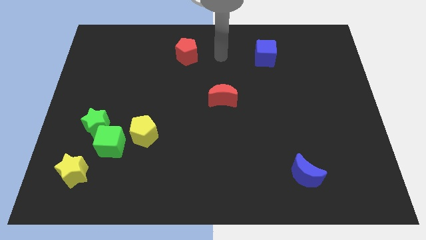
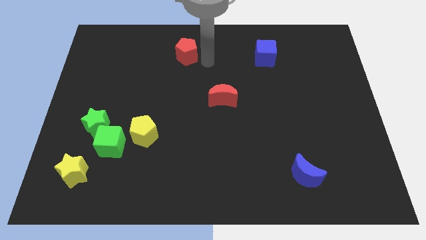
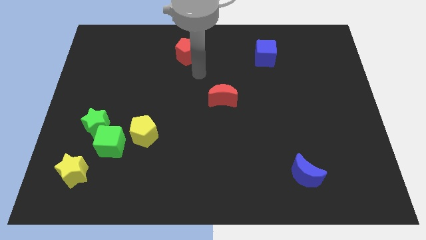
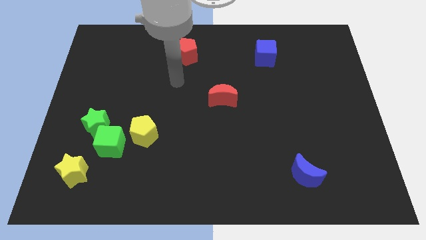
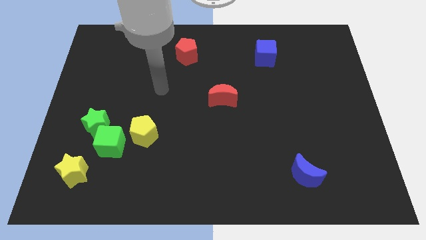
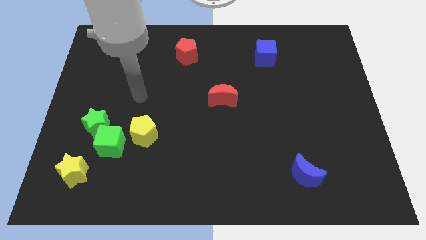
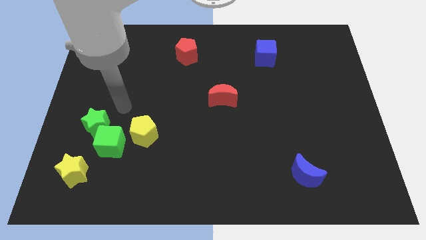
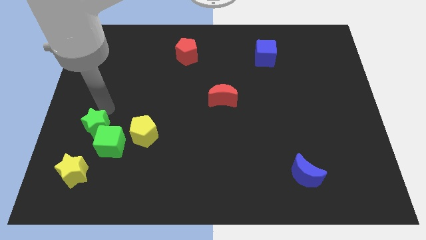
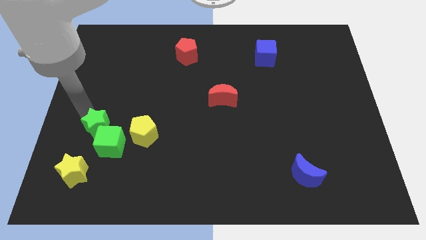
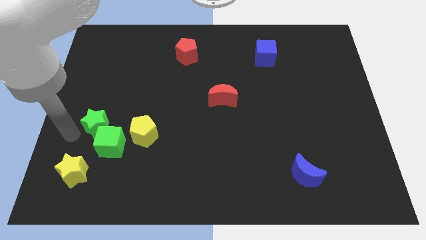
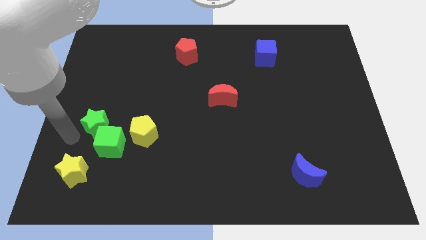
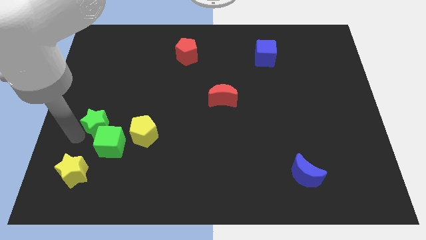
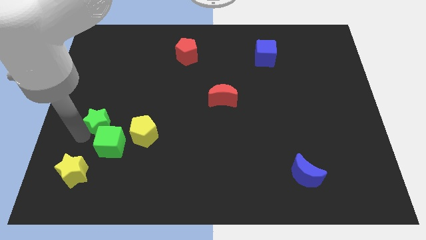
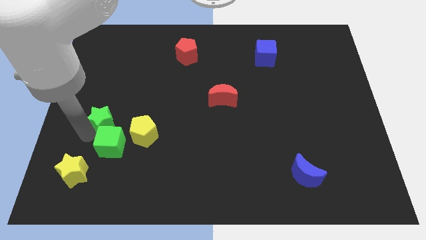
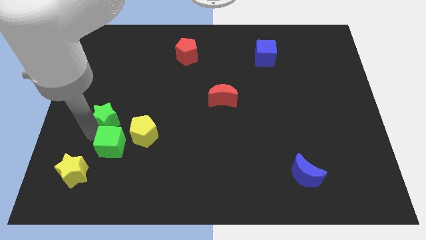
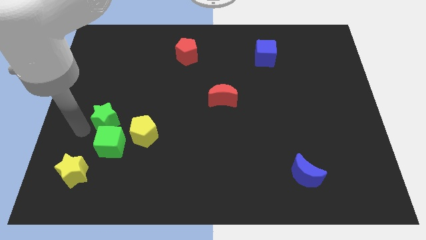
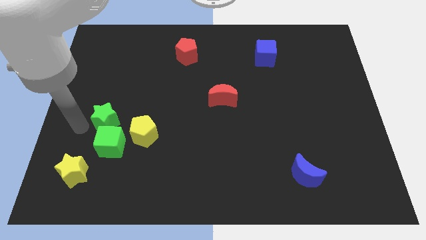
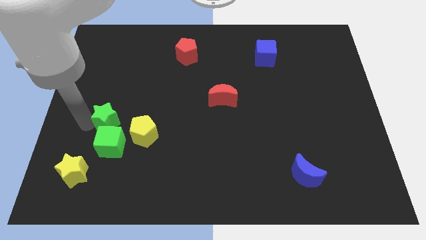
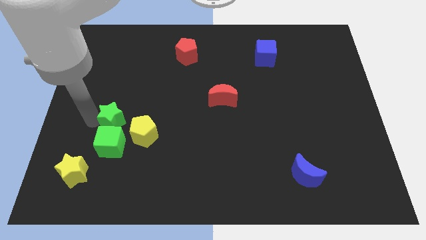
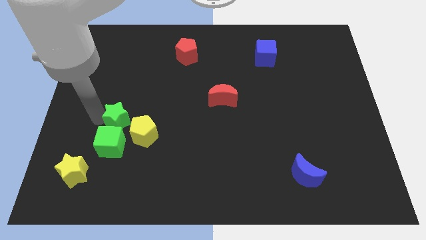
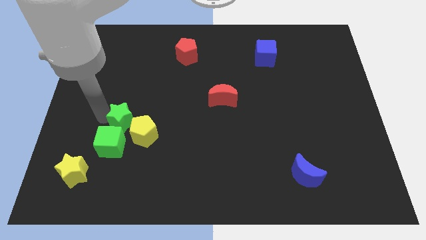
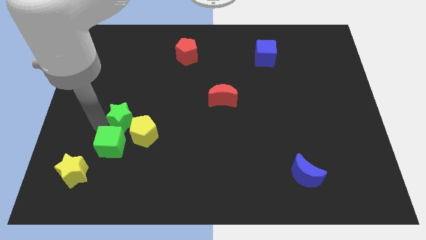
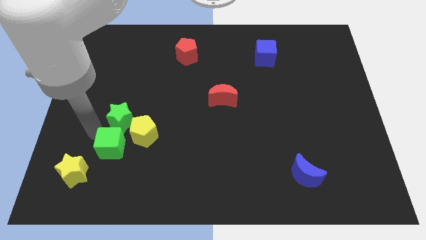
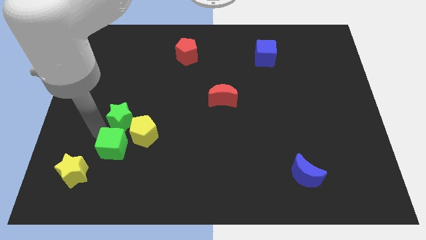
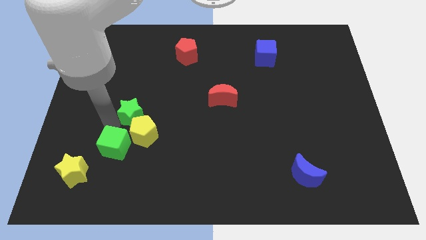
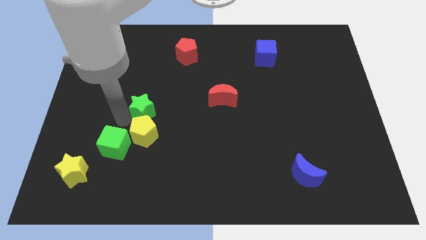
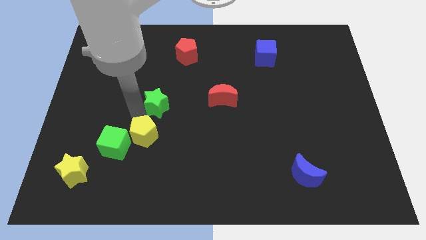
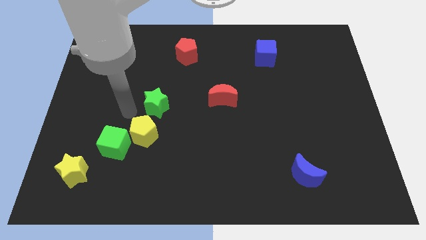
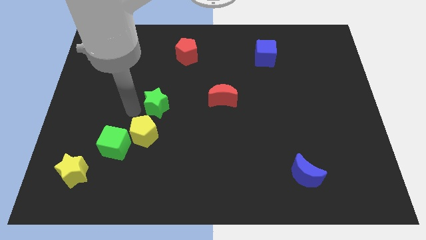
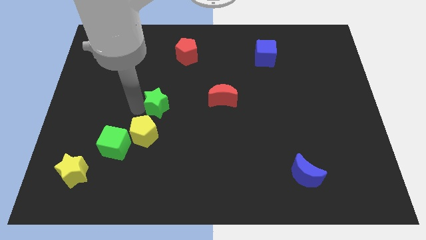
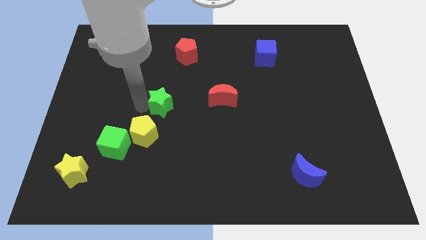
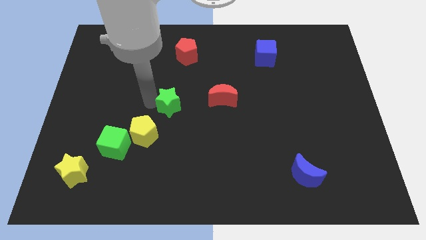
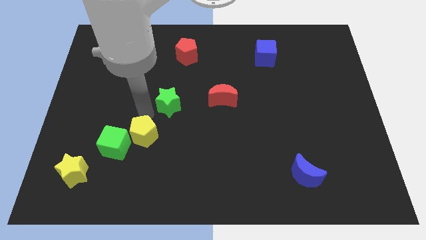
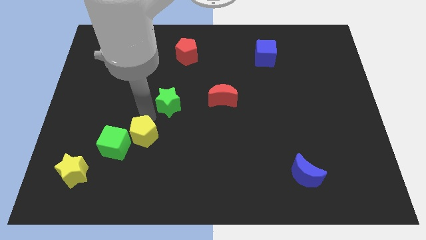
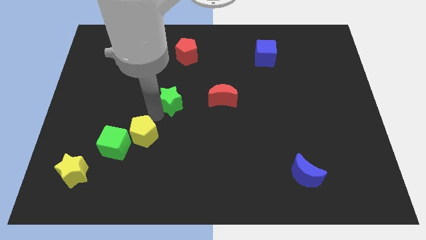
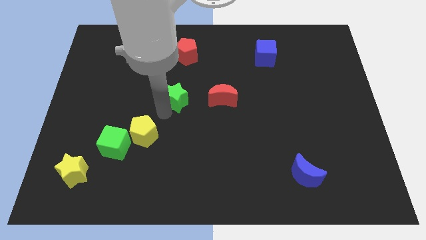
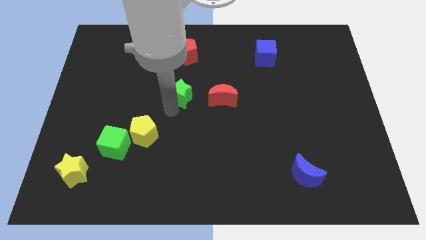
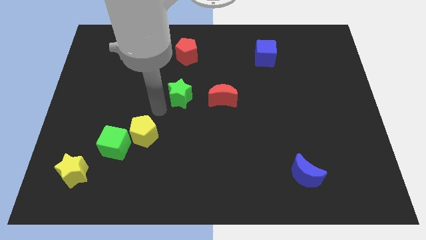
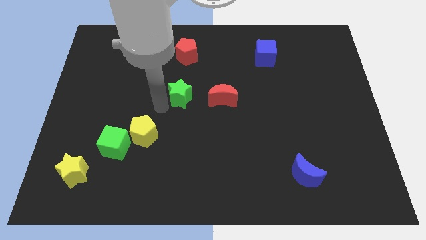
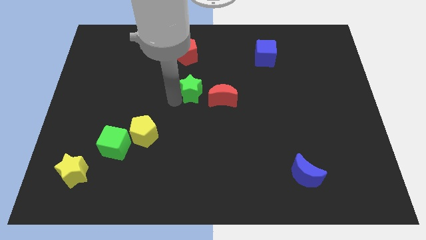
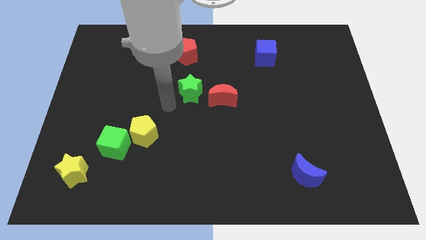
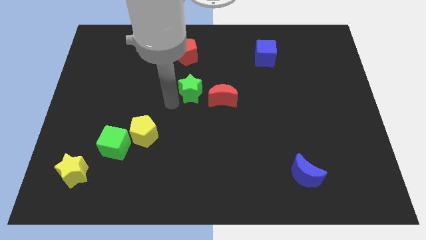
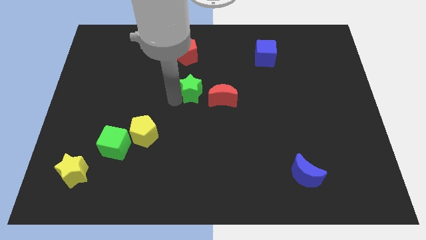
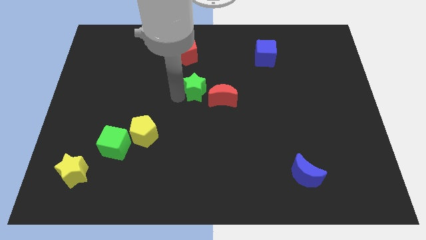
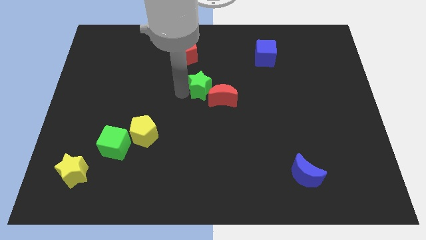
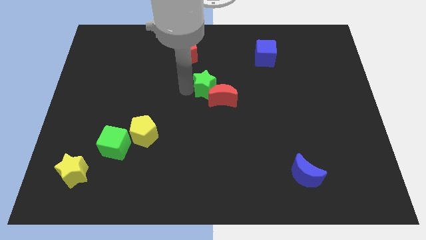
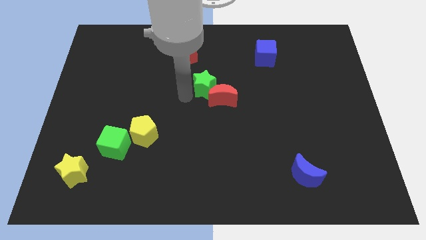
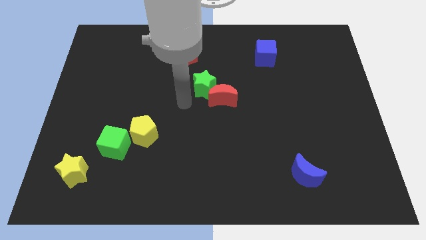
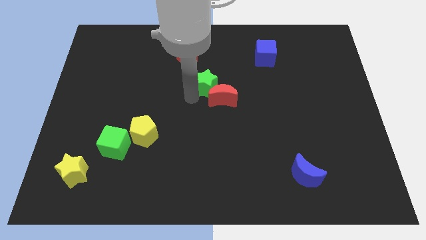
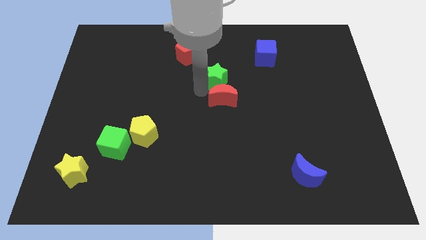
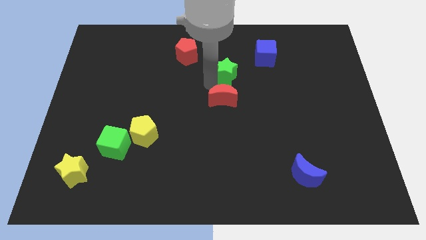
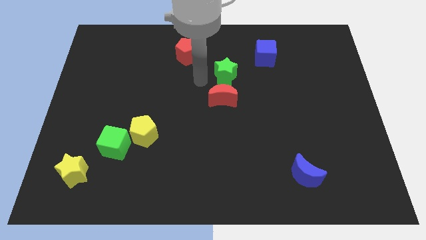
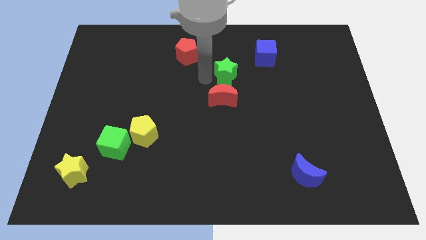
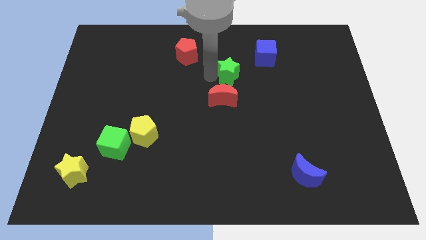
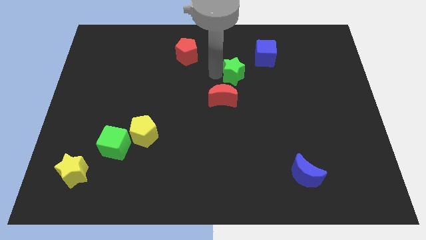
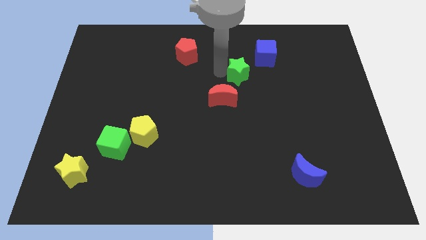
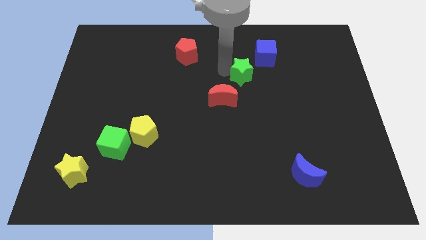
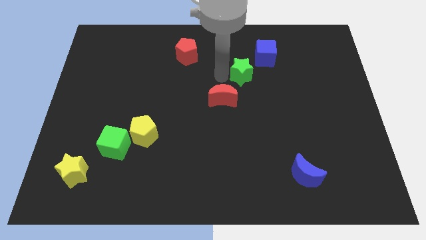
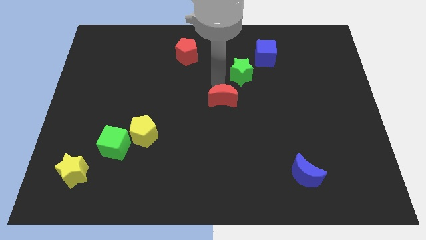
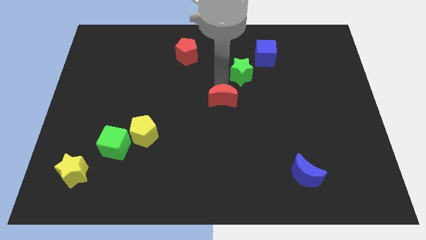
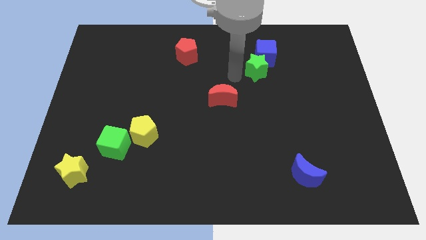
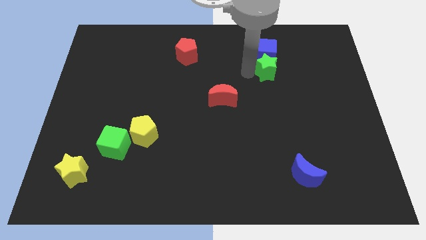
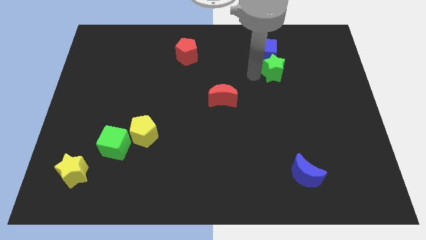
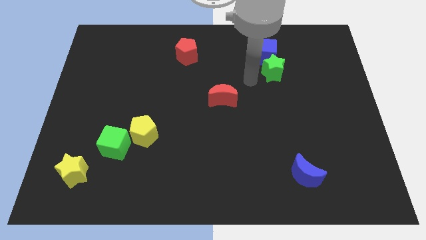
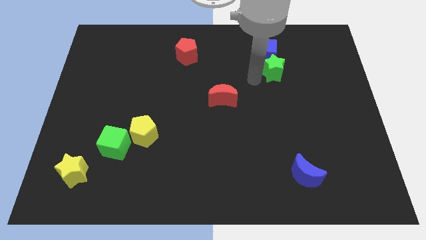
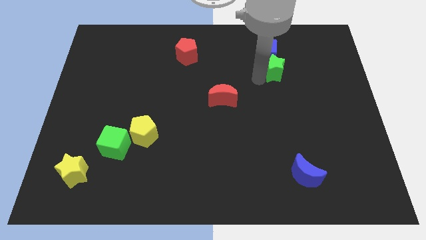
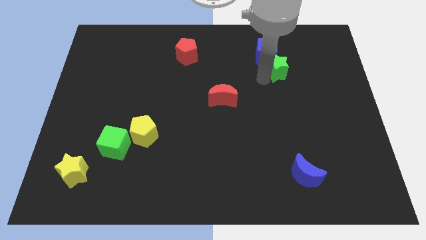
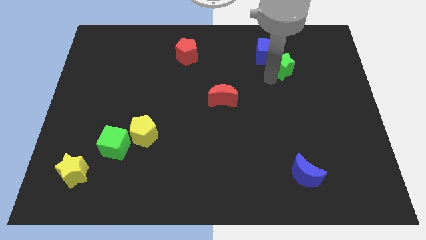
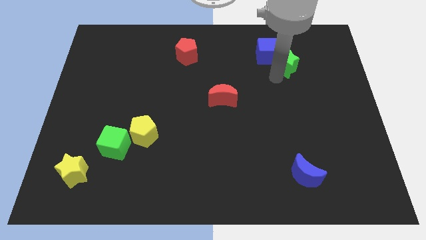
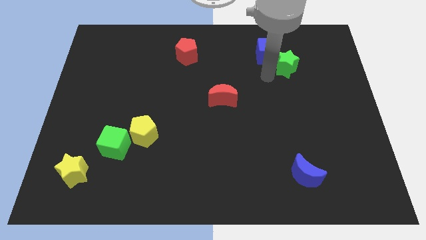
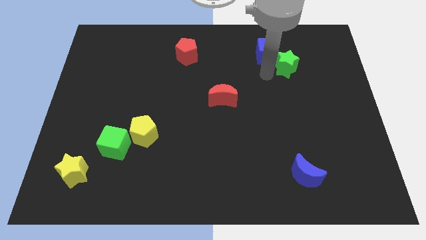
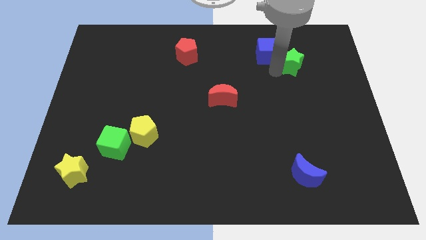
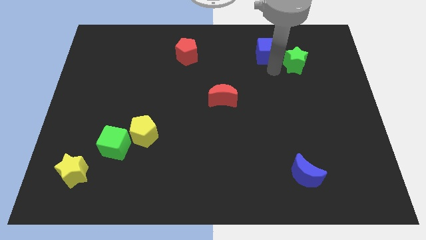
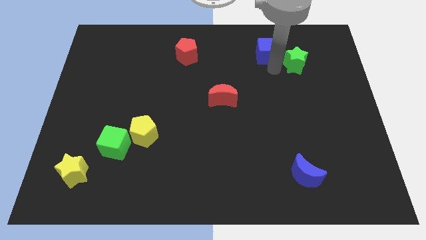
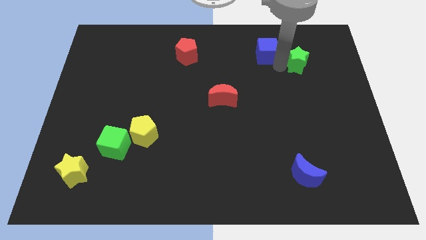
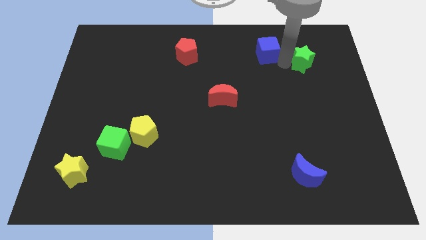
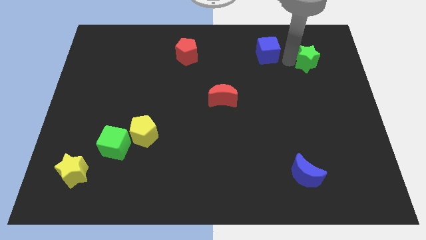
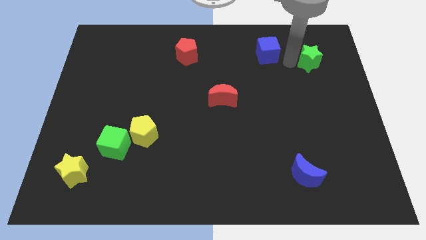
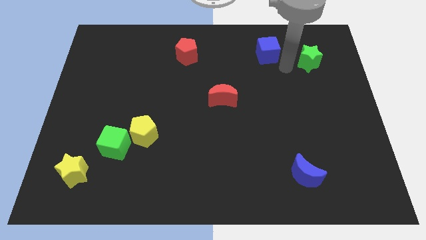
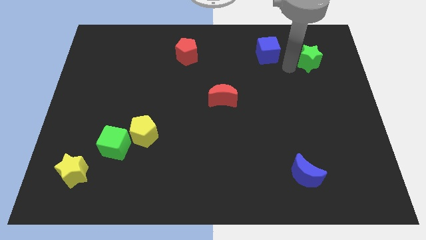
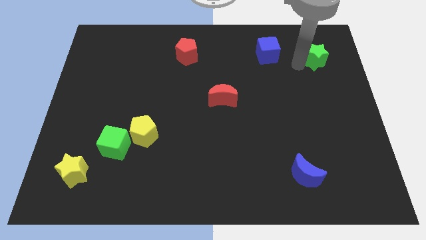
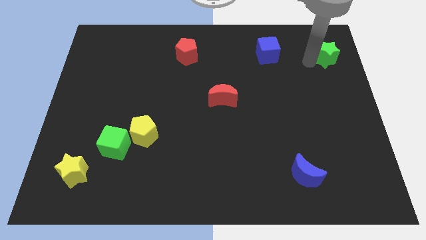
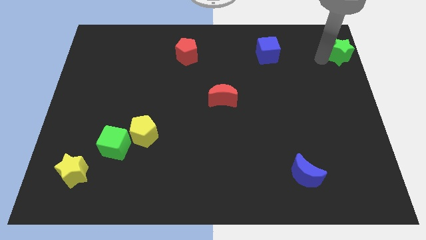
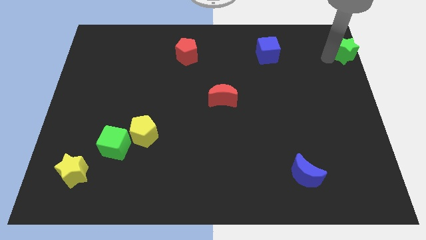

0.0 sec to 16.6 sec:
move the green star to the upper right corner
